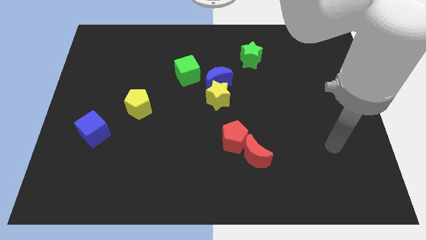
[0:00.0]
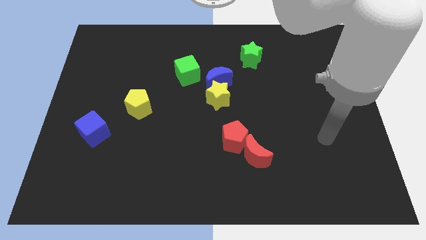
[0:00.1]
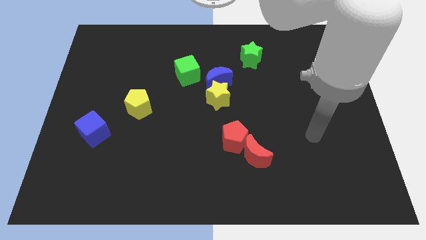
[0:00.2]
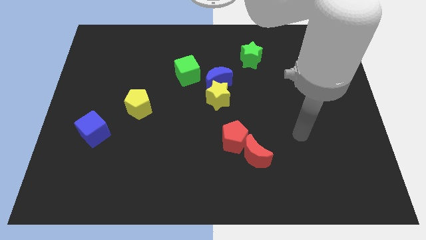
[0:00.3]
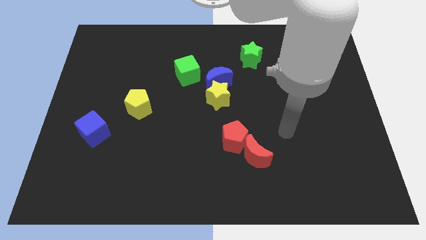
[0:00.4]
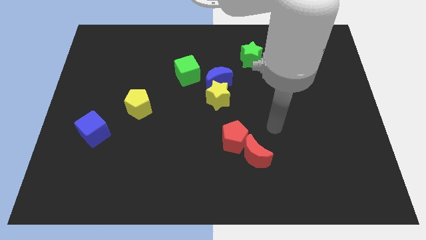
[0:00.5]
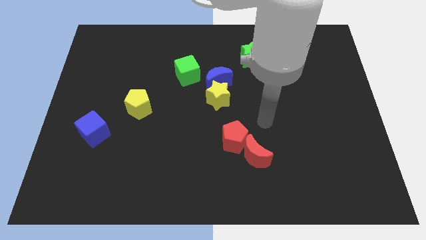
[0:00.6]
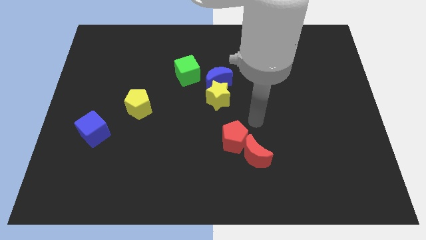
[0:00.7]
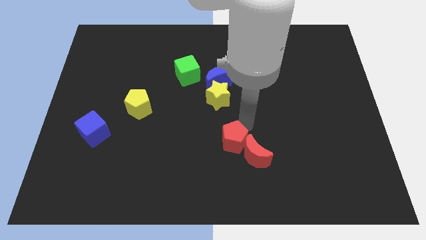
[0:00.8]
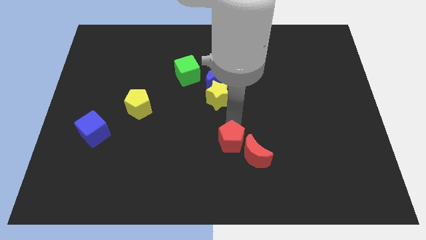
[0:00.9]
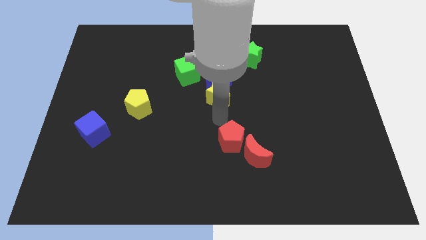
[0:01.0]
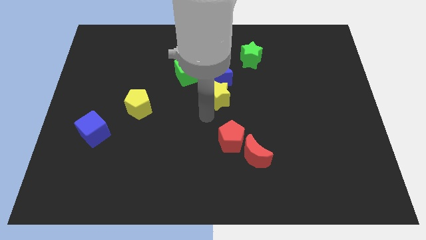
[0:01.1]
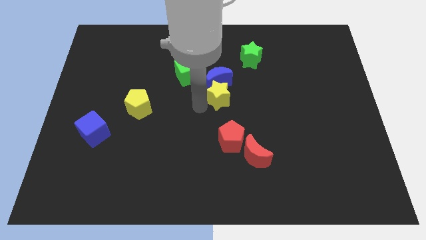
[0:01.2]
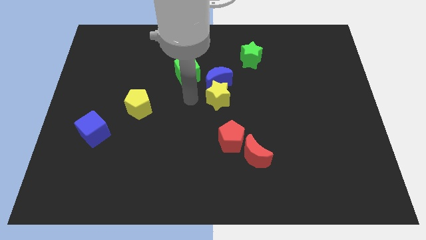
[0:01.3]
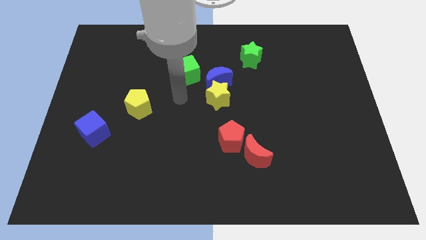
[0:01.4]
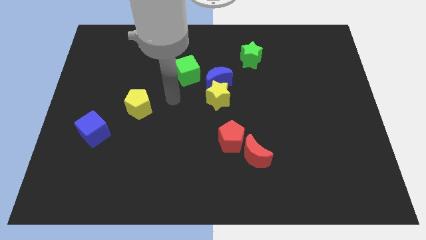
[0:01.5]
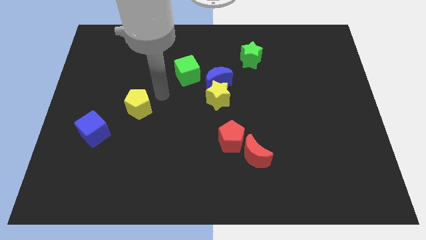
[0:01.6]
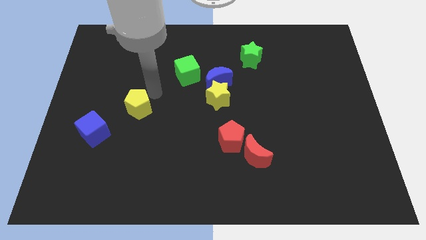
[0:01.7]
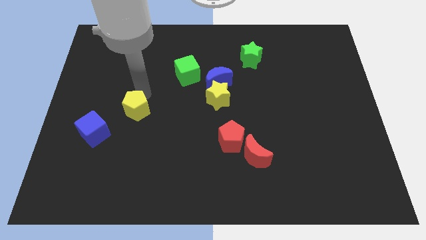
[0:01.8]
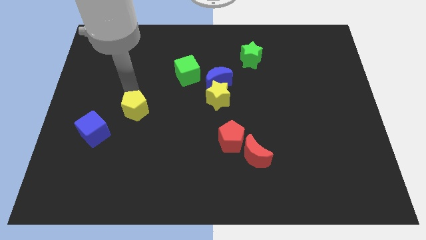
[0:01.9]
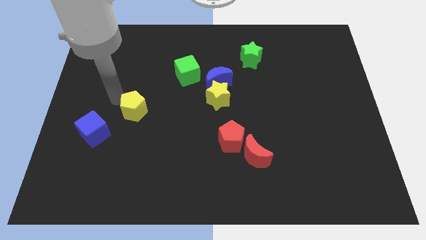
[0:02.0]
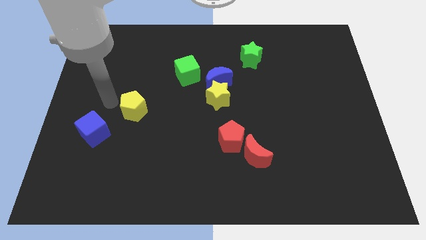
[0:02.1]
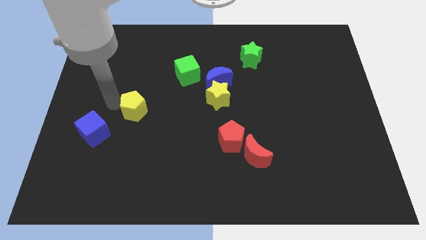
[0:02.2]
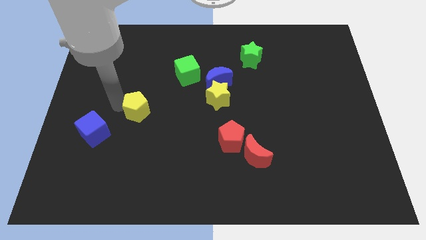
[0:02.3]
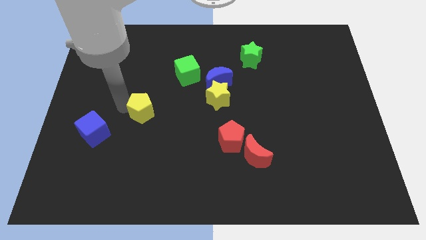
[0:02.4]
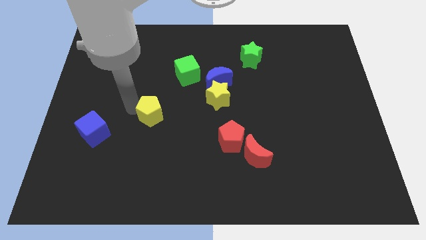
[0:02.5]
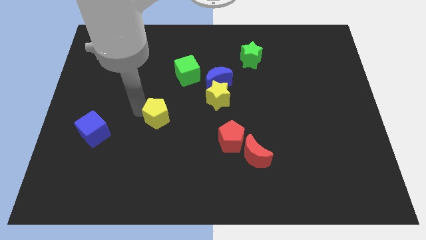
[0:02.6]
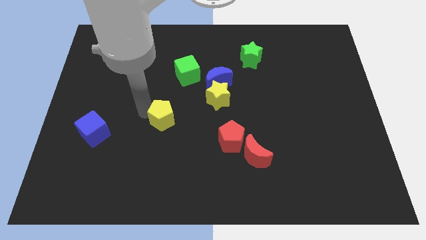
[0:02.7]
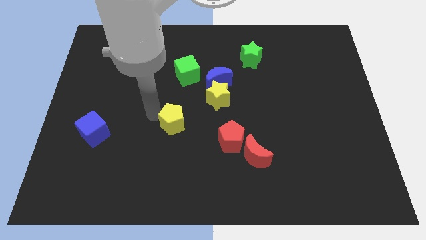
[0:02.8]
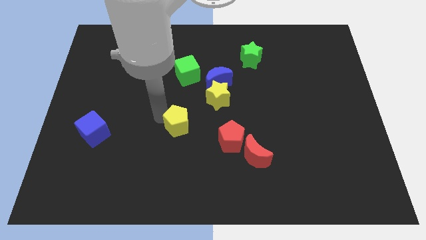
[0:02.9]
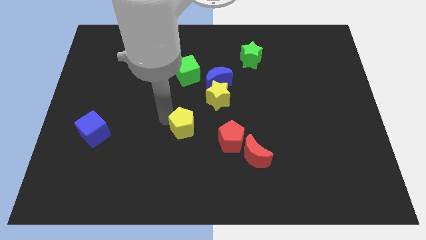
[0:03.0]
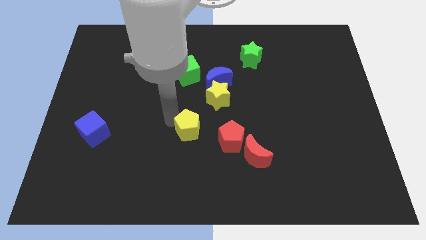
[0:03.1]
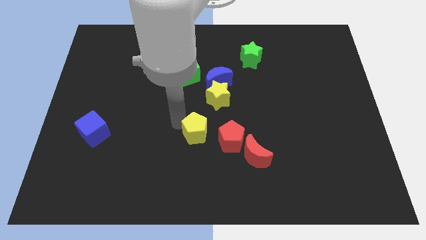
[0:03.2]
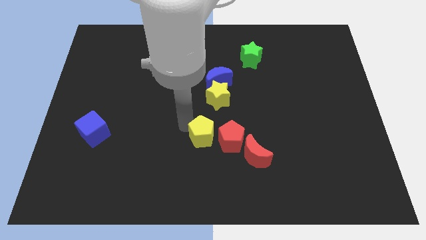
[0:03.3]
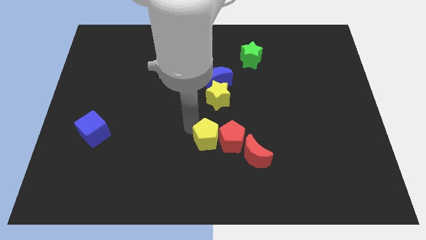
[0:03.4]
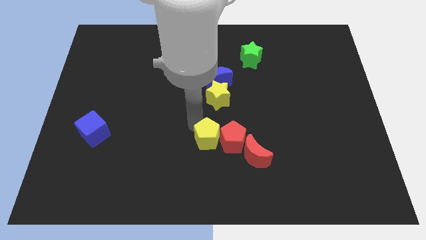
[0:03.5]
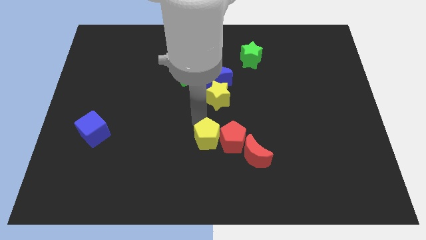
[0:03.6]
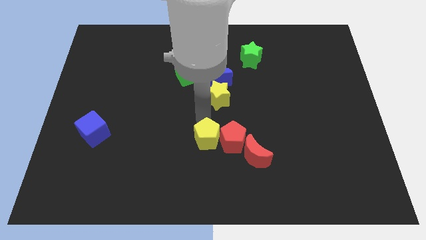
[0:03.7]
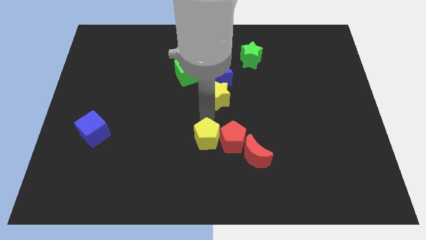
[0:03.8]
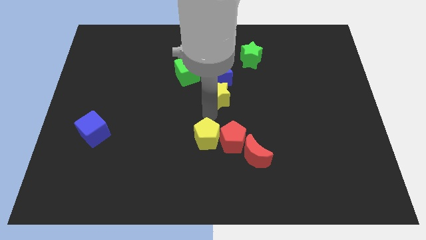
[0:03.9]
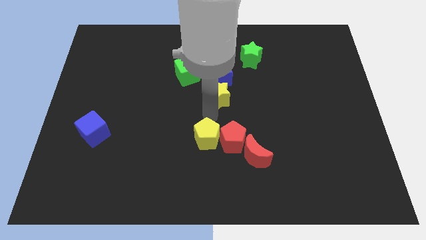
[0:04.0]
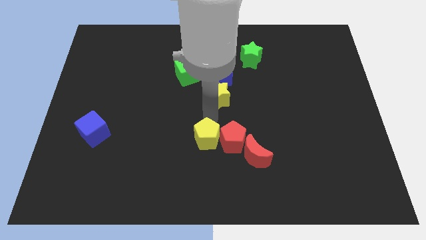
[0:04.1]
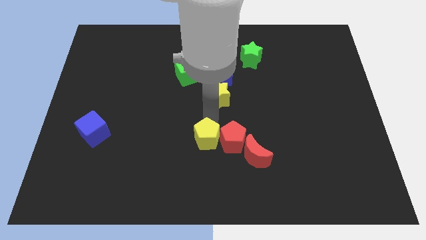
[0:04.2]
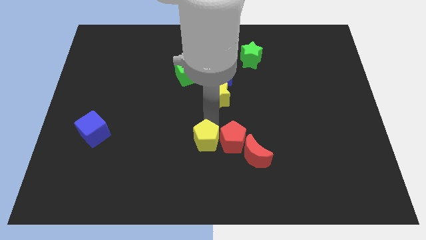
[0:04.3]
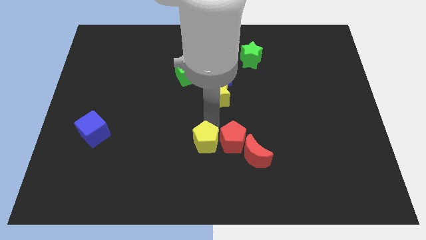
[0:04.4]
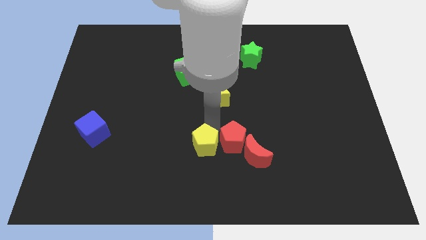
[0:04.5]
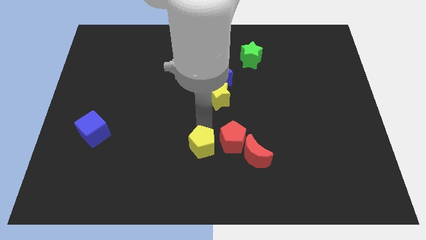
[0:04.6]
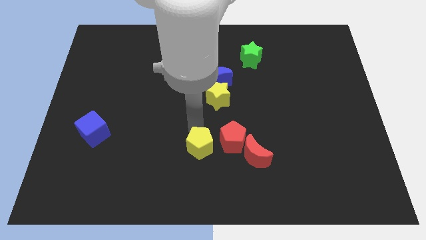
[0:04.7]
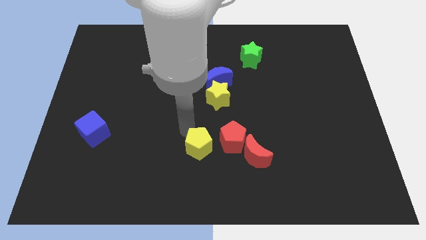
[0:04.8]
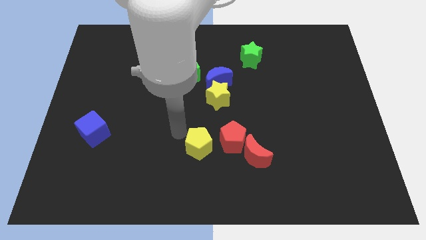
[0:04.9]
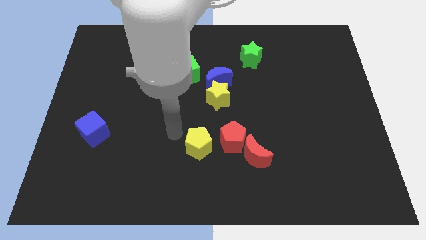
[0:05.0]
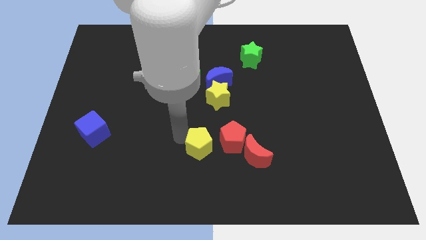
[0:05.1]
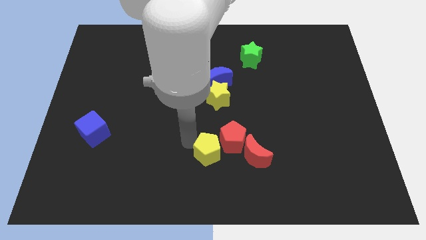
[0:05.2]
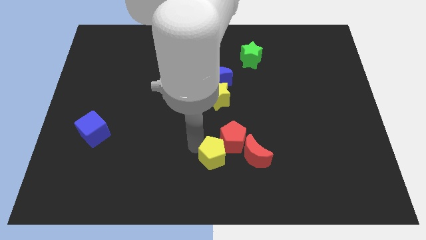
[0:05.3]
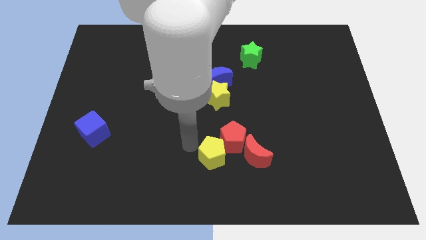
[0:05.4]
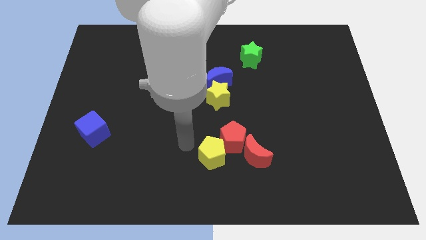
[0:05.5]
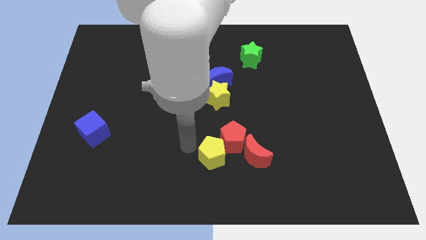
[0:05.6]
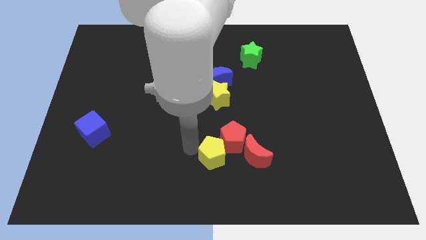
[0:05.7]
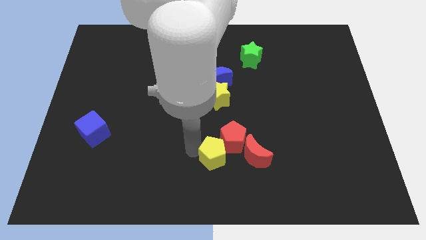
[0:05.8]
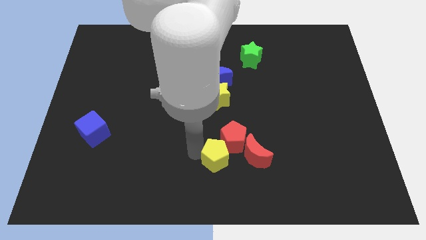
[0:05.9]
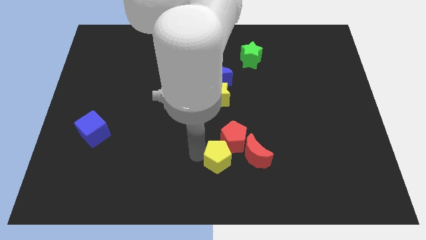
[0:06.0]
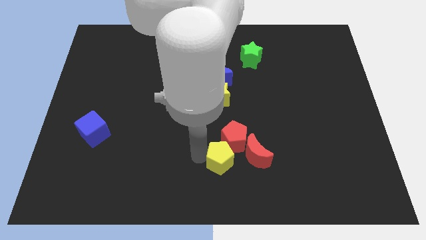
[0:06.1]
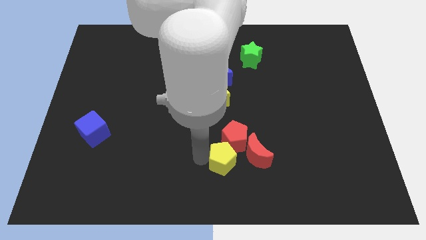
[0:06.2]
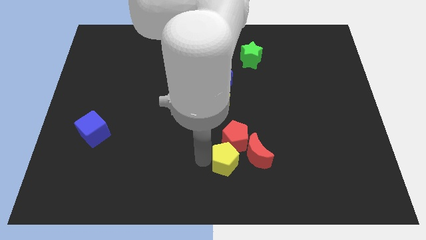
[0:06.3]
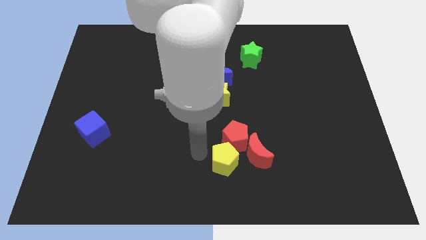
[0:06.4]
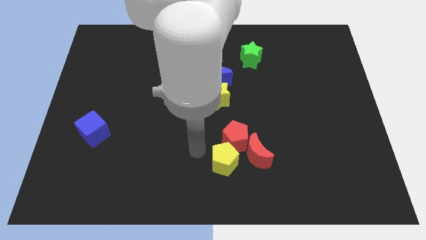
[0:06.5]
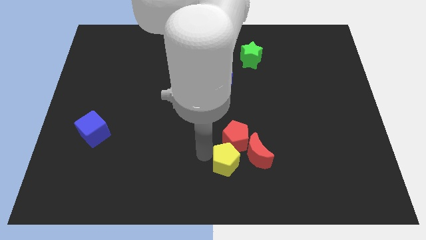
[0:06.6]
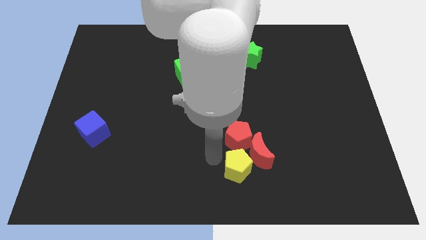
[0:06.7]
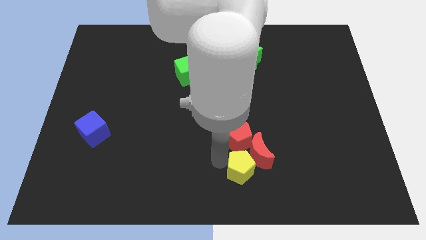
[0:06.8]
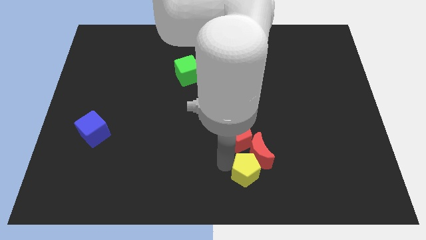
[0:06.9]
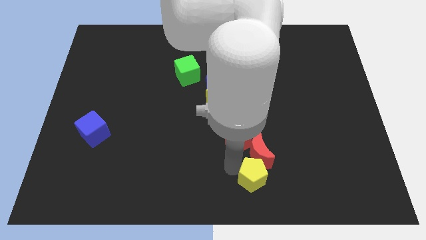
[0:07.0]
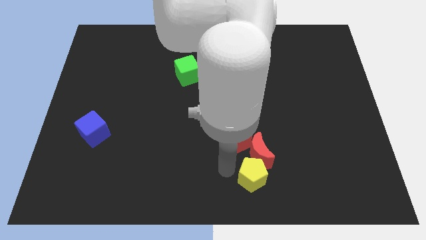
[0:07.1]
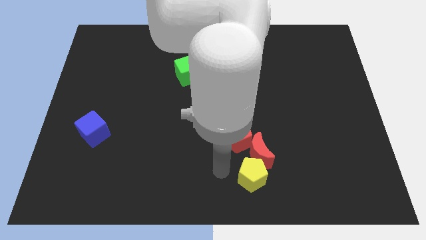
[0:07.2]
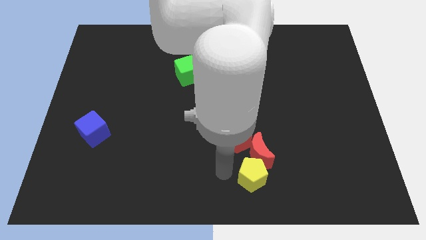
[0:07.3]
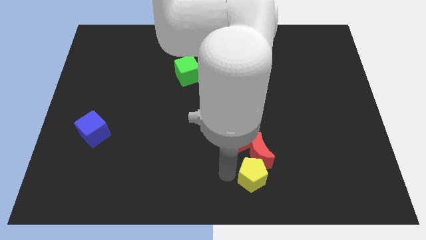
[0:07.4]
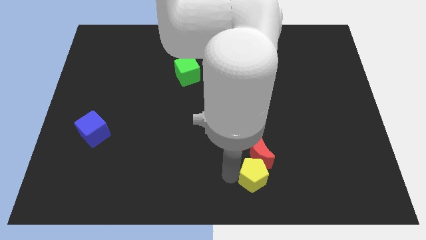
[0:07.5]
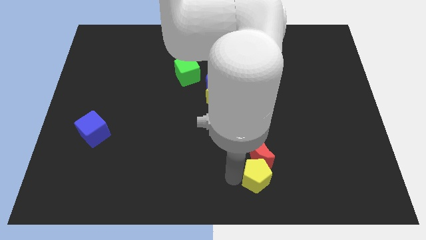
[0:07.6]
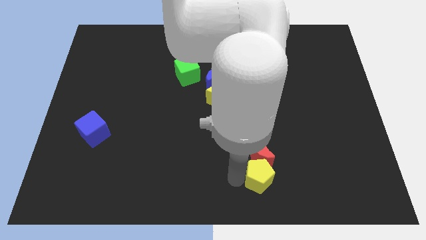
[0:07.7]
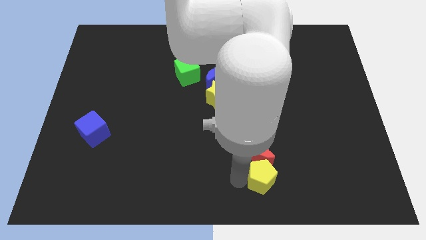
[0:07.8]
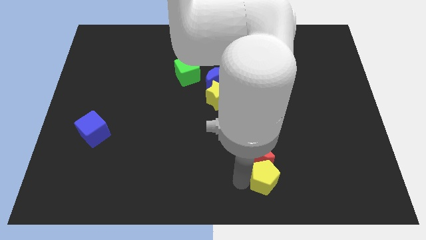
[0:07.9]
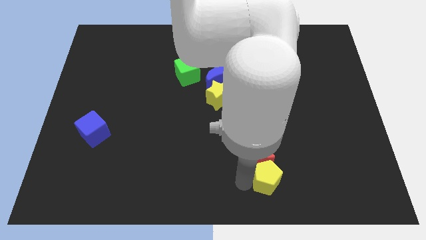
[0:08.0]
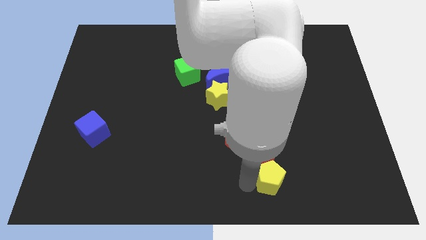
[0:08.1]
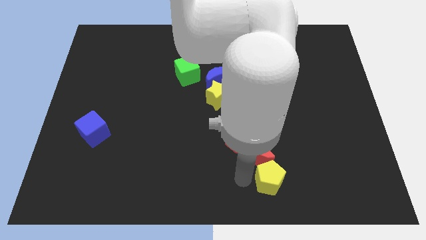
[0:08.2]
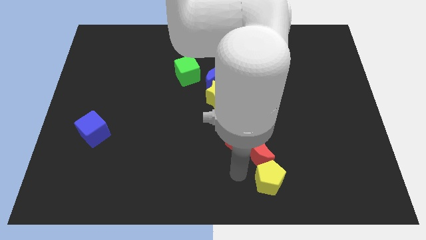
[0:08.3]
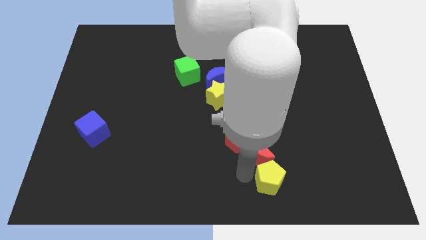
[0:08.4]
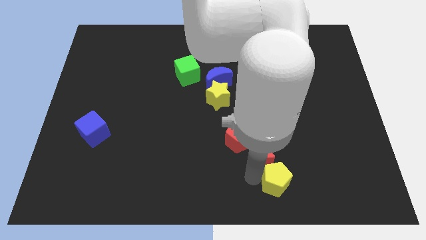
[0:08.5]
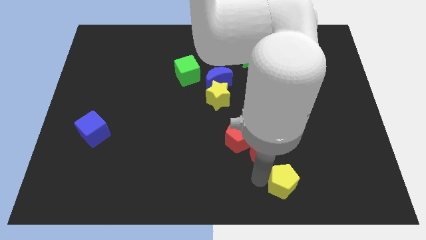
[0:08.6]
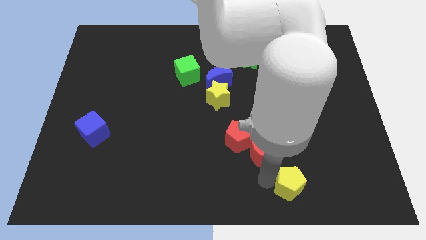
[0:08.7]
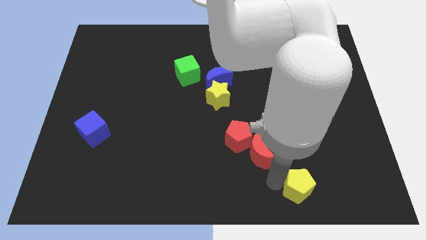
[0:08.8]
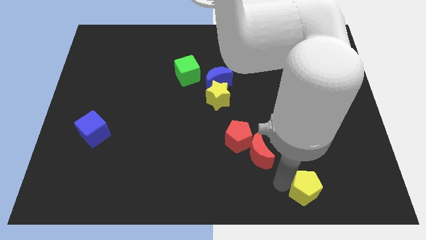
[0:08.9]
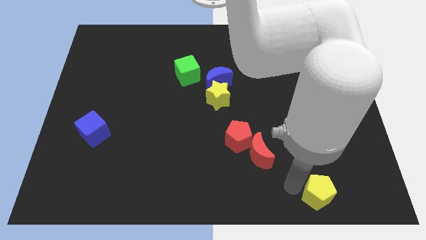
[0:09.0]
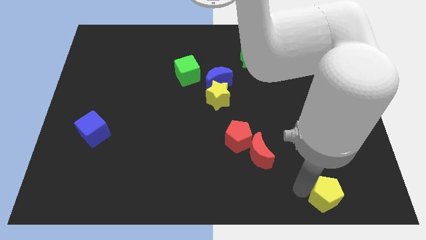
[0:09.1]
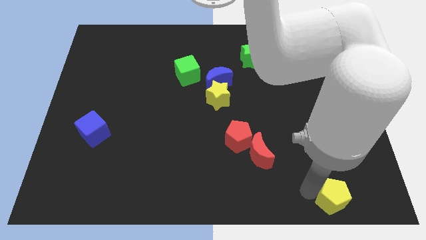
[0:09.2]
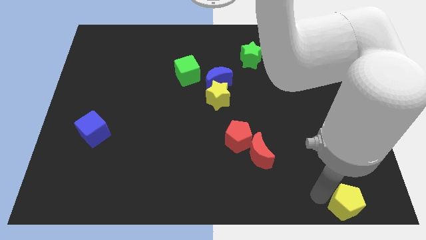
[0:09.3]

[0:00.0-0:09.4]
move the yellow pentagon to the bottom right
